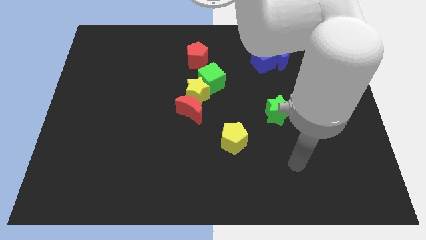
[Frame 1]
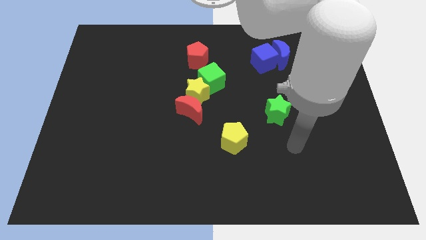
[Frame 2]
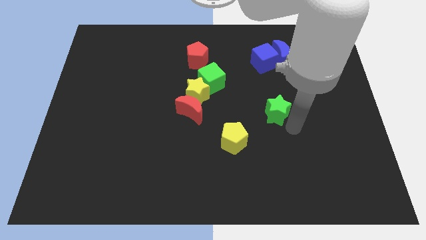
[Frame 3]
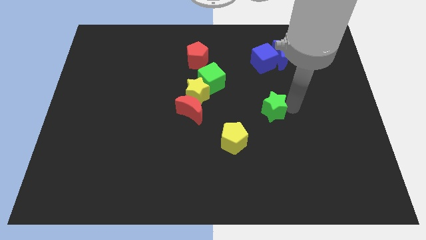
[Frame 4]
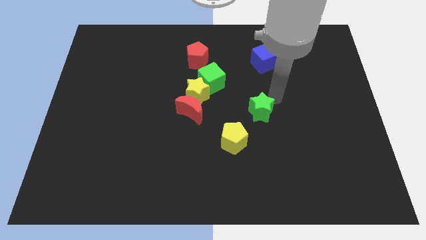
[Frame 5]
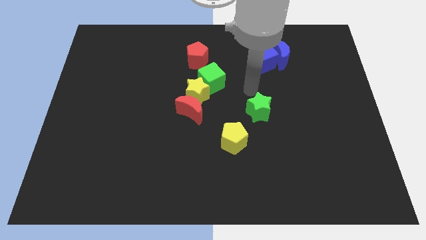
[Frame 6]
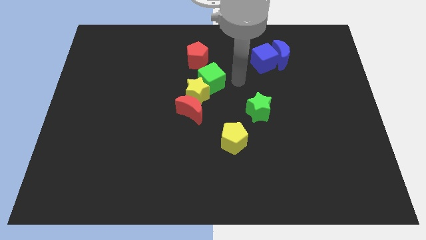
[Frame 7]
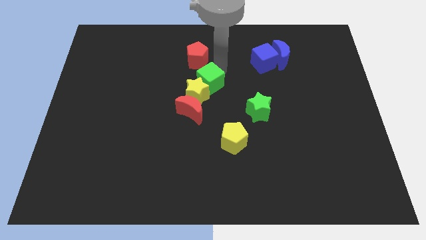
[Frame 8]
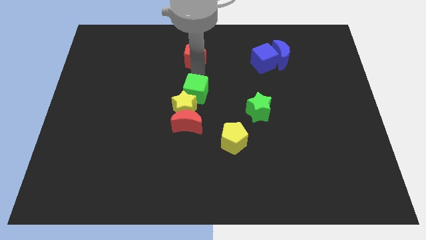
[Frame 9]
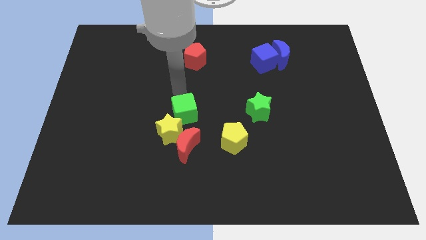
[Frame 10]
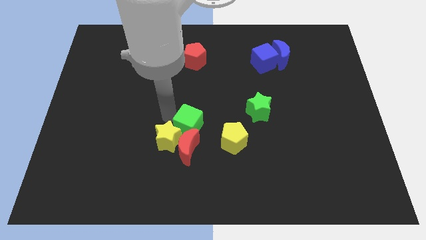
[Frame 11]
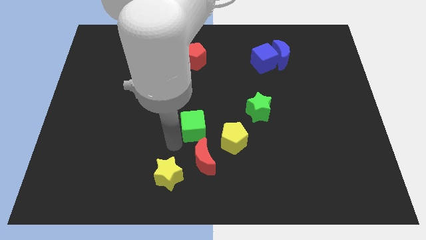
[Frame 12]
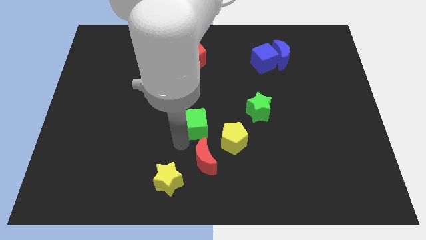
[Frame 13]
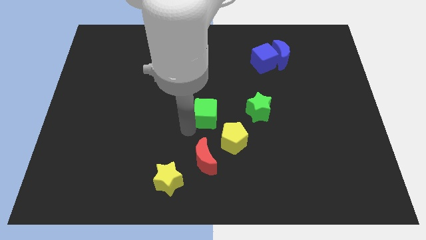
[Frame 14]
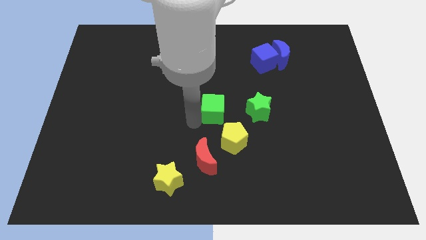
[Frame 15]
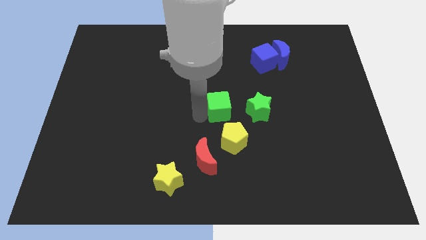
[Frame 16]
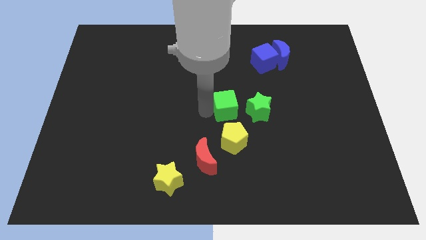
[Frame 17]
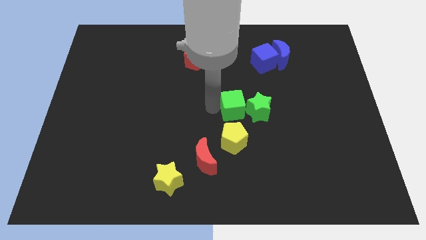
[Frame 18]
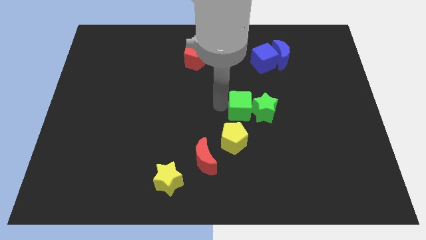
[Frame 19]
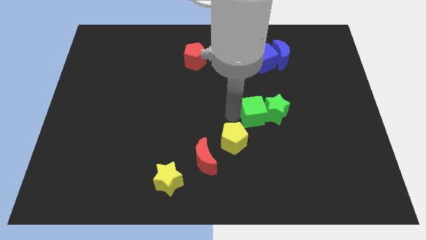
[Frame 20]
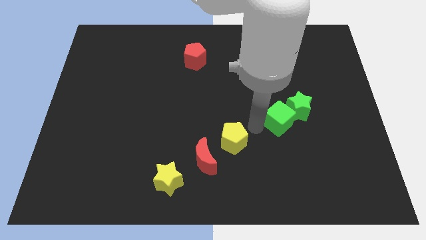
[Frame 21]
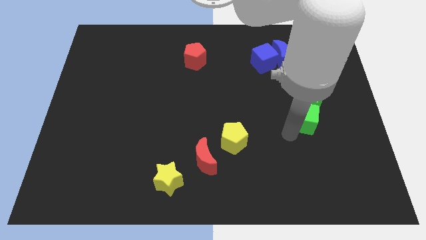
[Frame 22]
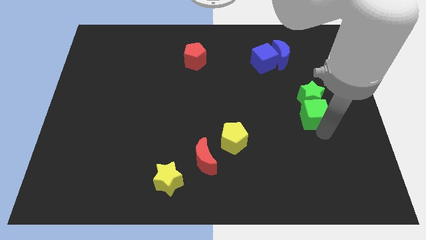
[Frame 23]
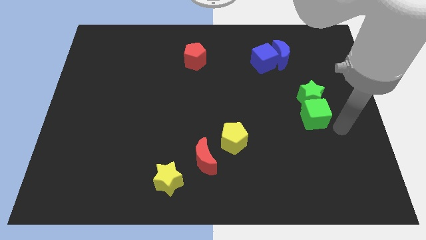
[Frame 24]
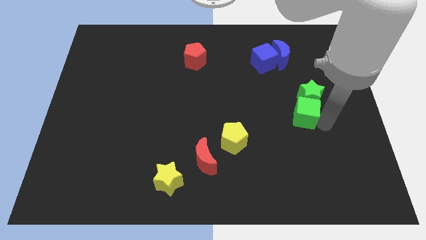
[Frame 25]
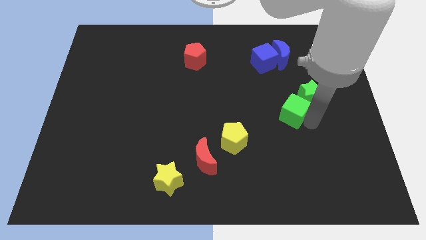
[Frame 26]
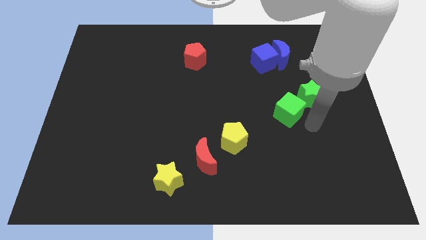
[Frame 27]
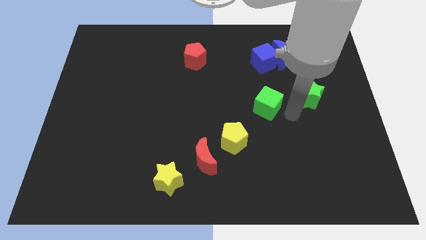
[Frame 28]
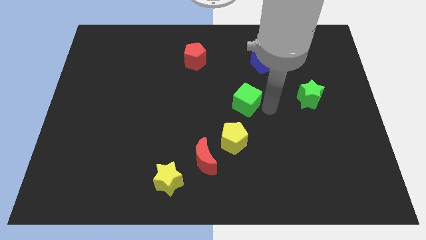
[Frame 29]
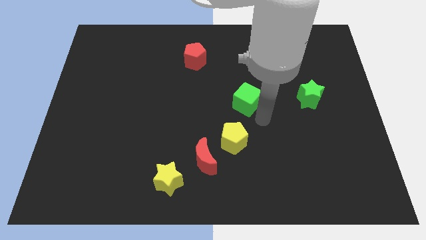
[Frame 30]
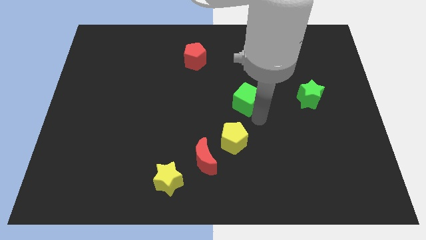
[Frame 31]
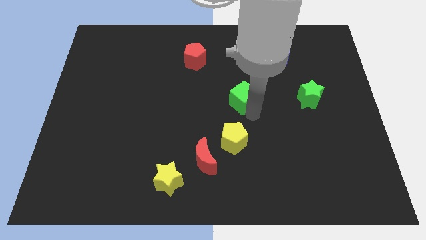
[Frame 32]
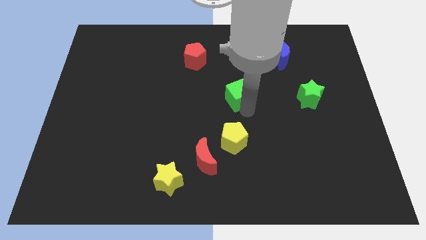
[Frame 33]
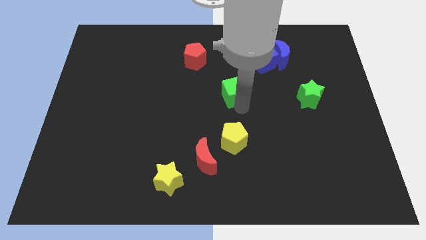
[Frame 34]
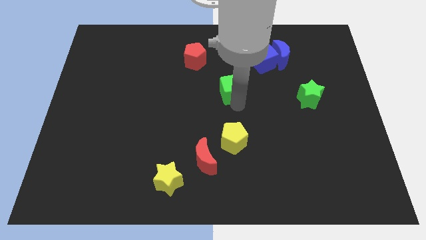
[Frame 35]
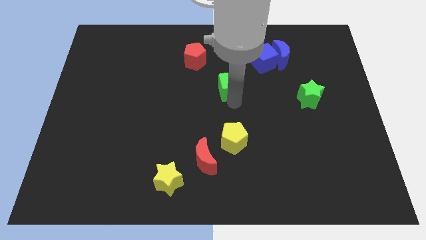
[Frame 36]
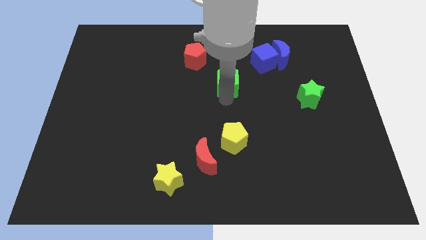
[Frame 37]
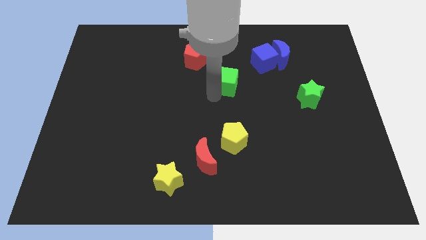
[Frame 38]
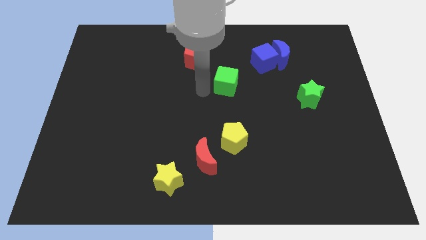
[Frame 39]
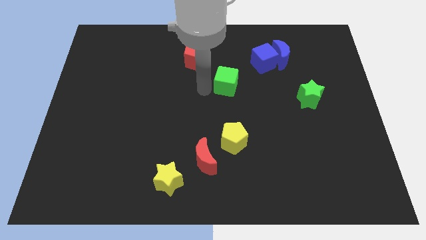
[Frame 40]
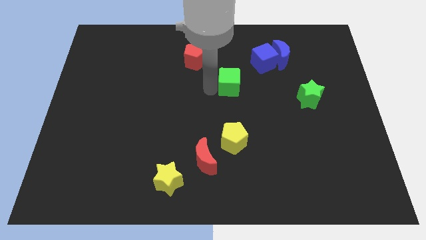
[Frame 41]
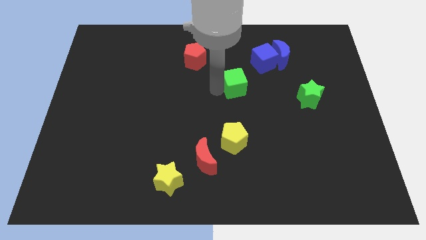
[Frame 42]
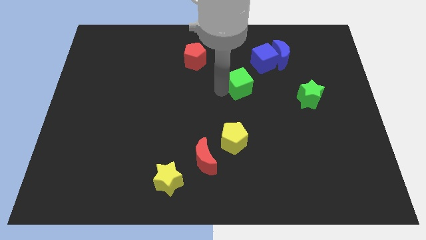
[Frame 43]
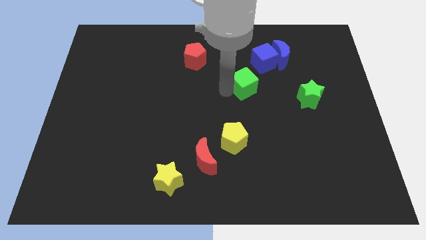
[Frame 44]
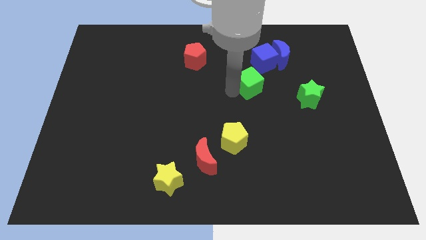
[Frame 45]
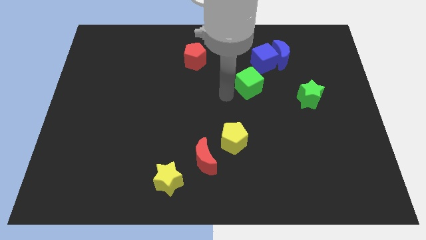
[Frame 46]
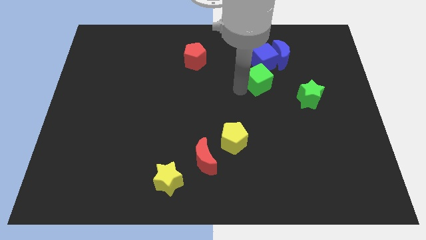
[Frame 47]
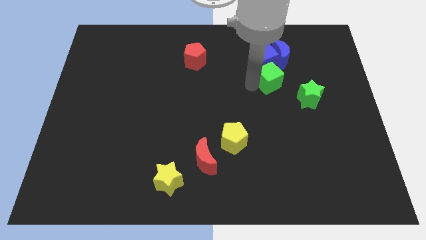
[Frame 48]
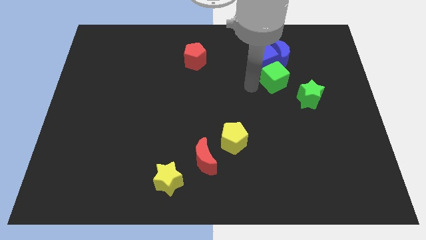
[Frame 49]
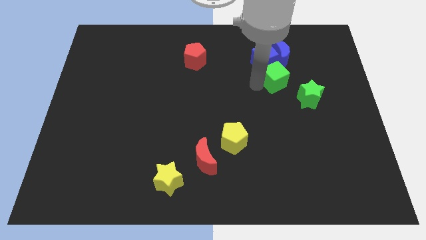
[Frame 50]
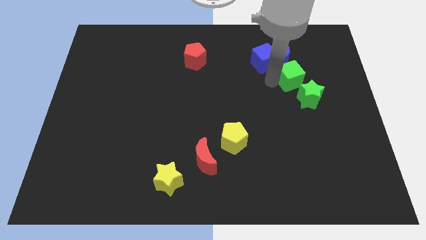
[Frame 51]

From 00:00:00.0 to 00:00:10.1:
put the green cube to the bottom right of the blue moon

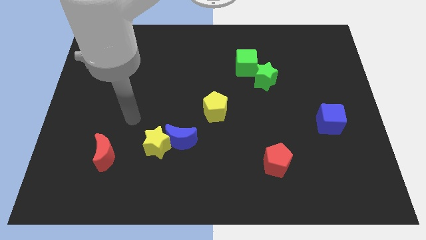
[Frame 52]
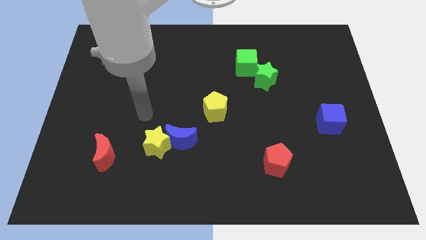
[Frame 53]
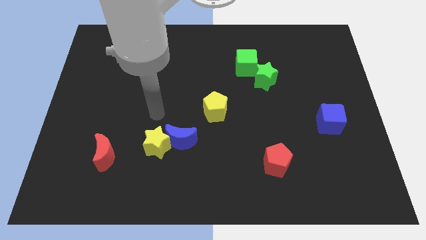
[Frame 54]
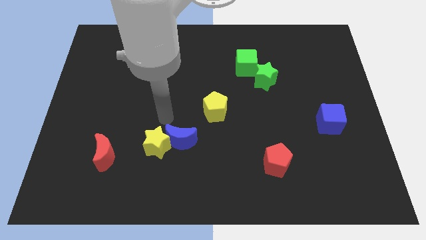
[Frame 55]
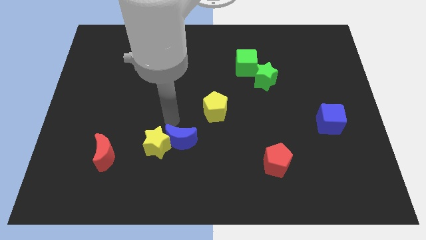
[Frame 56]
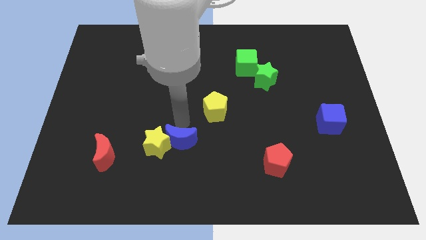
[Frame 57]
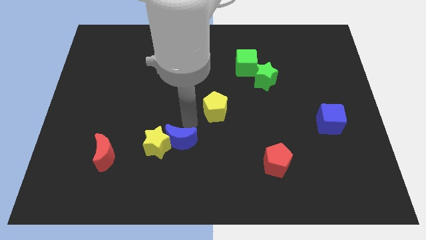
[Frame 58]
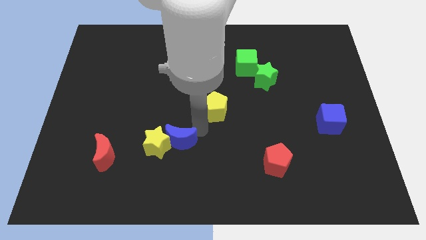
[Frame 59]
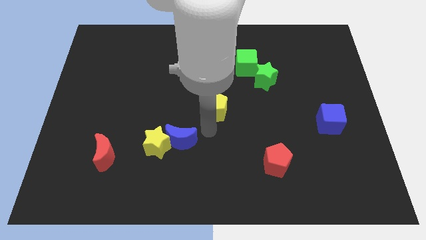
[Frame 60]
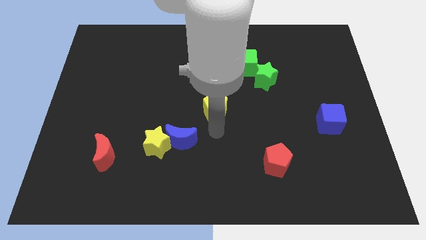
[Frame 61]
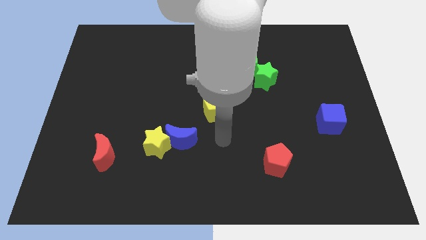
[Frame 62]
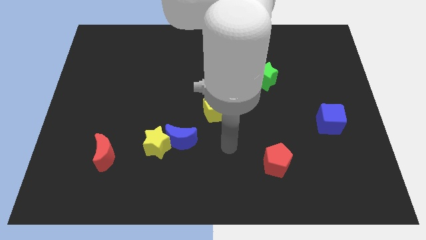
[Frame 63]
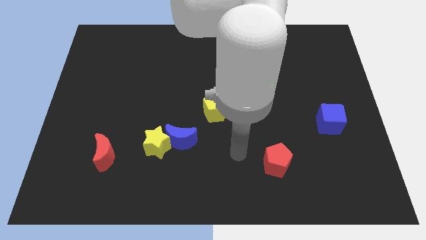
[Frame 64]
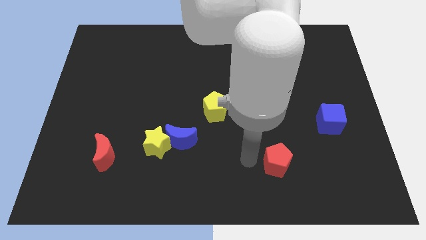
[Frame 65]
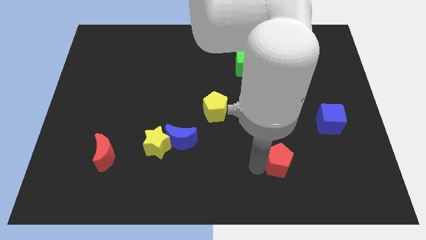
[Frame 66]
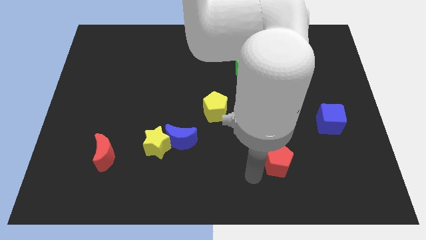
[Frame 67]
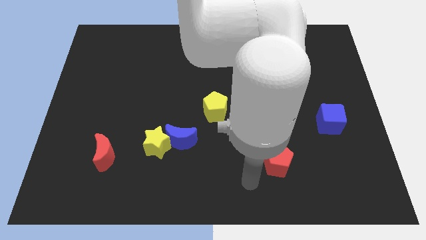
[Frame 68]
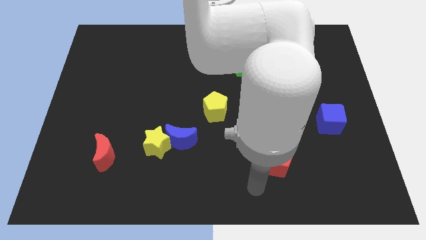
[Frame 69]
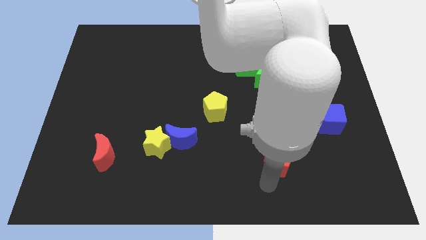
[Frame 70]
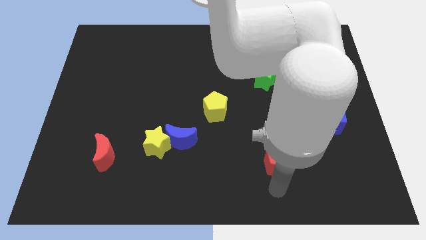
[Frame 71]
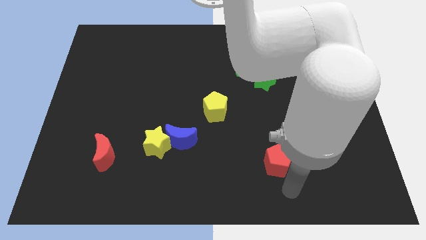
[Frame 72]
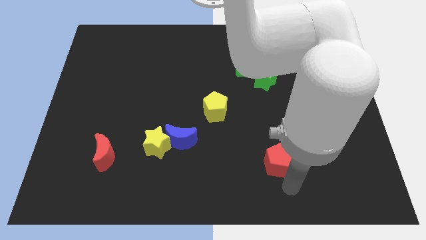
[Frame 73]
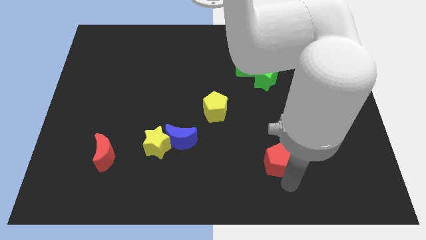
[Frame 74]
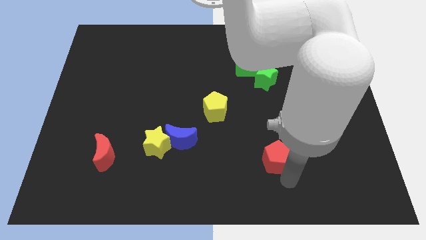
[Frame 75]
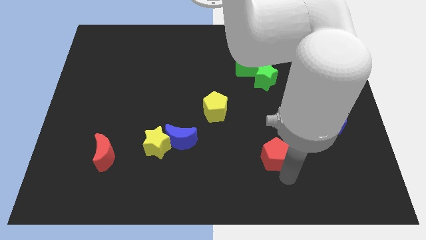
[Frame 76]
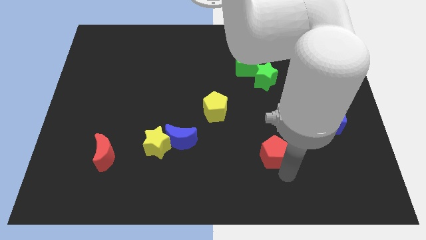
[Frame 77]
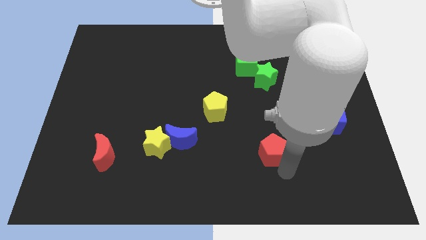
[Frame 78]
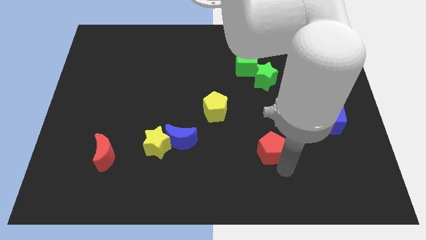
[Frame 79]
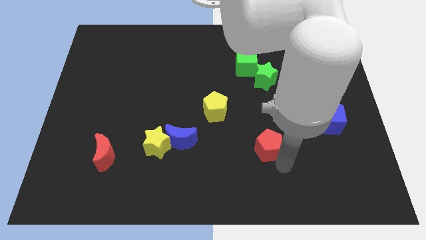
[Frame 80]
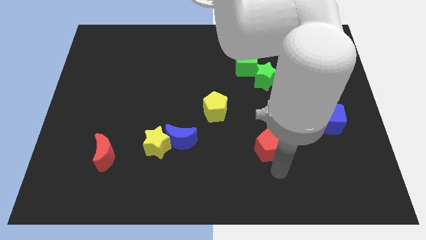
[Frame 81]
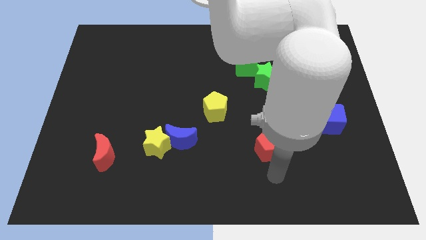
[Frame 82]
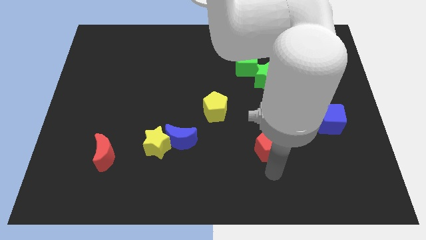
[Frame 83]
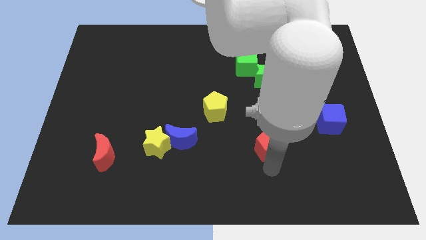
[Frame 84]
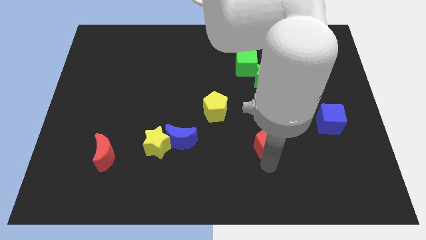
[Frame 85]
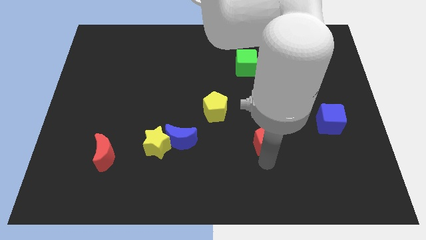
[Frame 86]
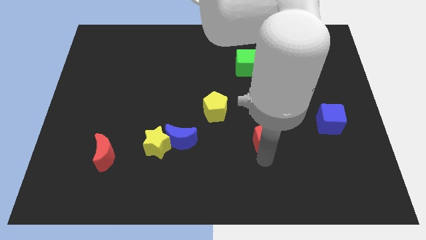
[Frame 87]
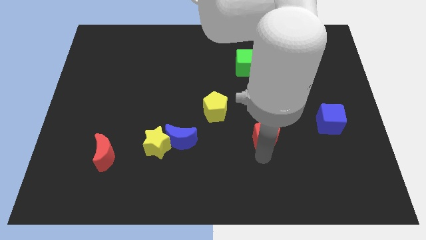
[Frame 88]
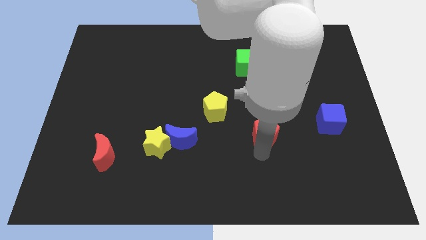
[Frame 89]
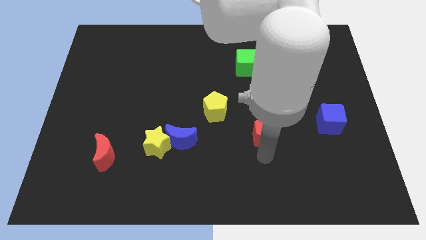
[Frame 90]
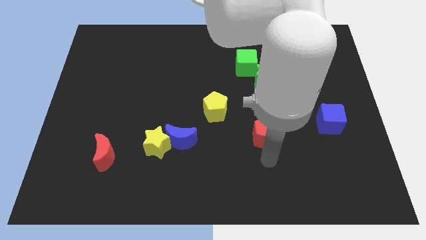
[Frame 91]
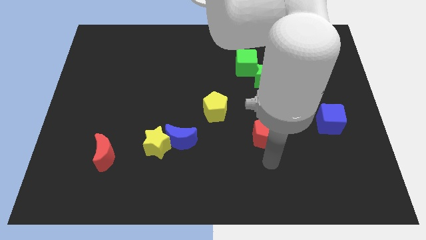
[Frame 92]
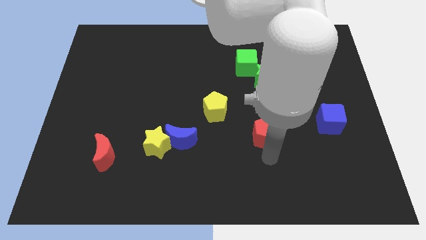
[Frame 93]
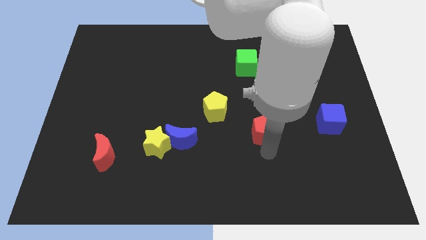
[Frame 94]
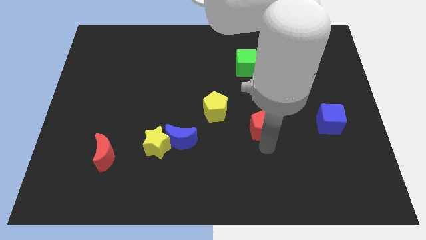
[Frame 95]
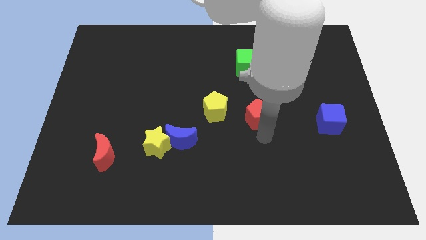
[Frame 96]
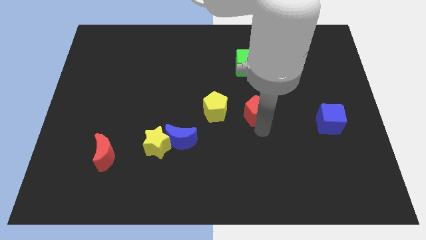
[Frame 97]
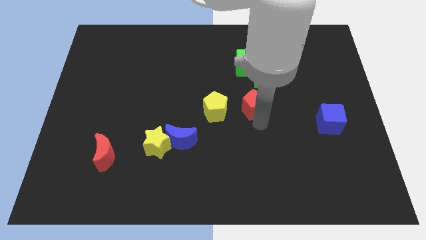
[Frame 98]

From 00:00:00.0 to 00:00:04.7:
push the red pentagon to the bottom left side of the green star
